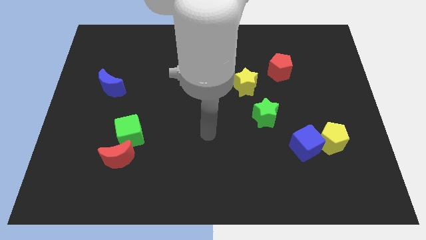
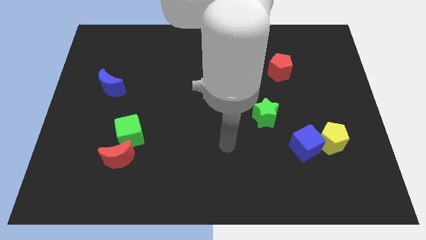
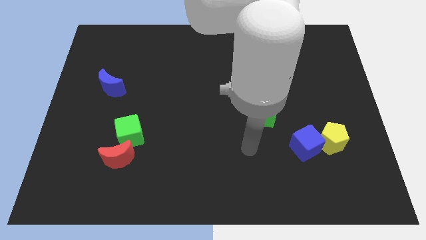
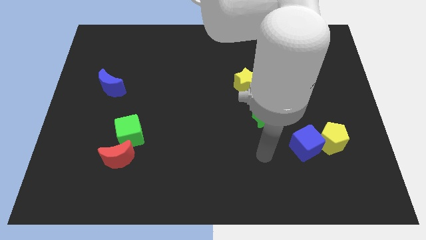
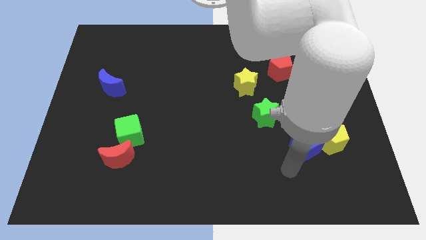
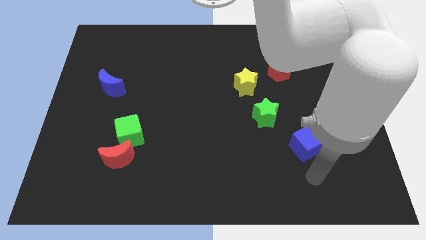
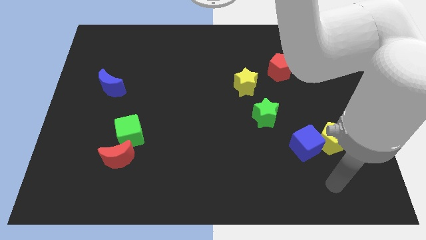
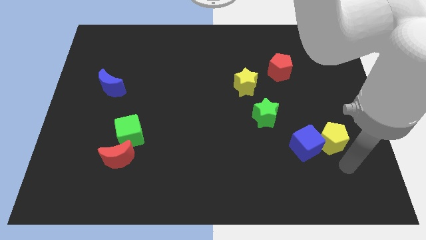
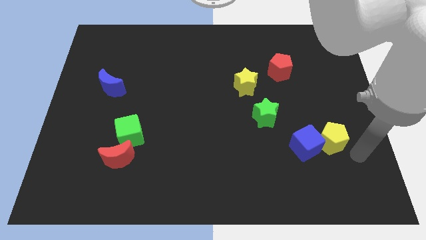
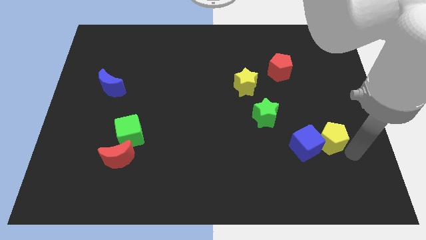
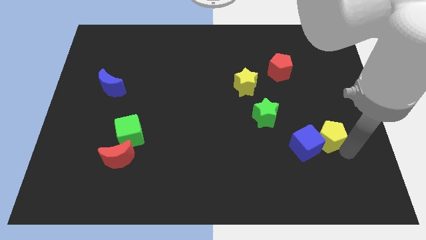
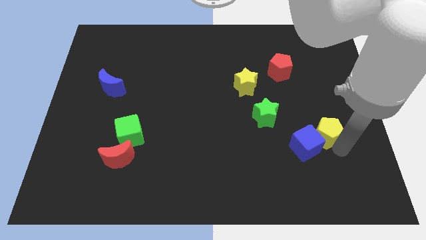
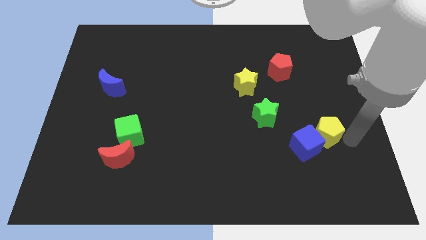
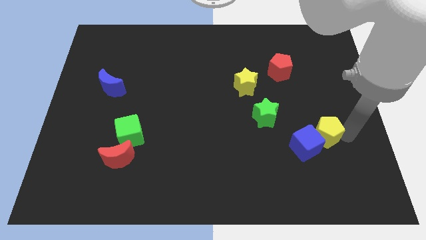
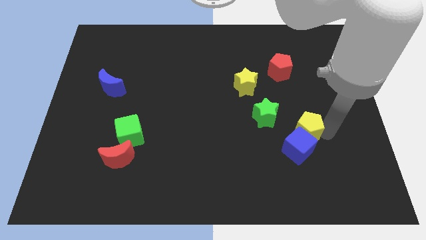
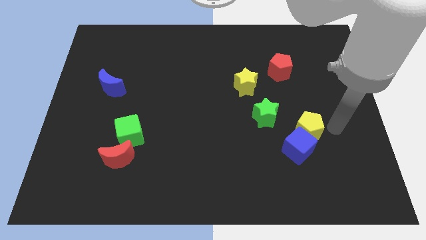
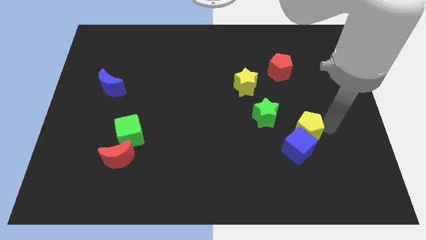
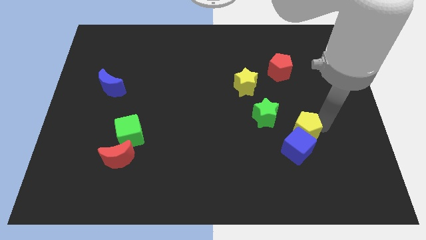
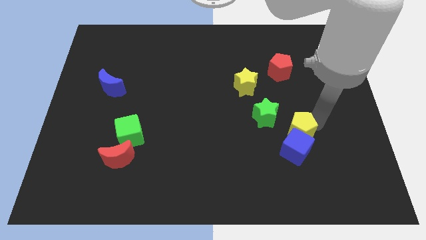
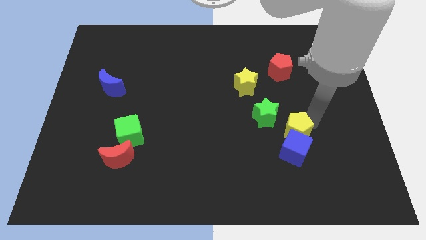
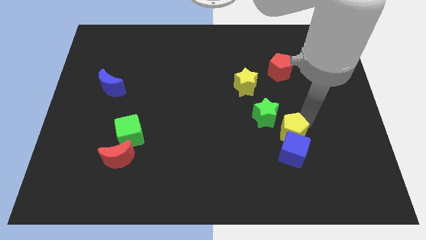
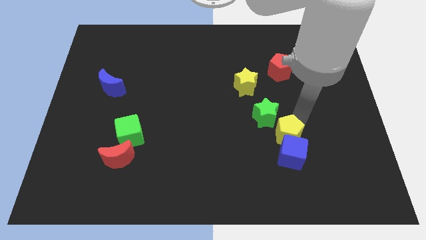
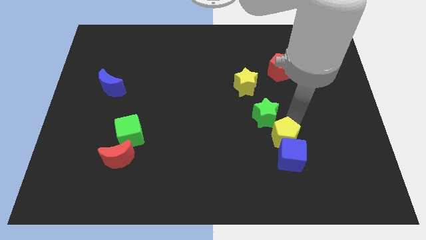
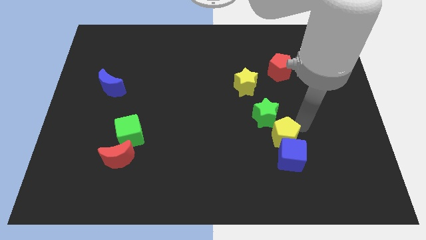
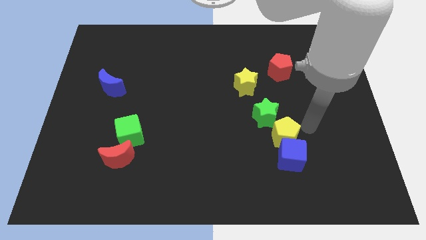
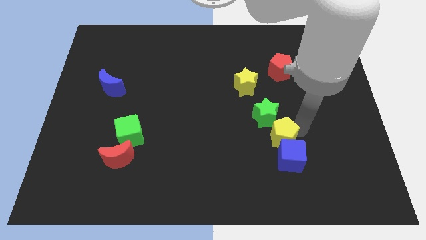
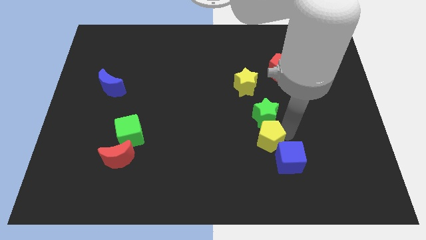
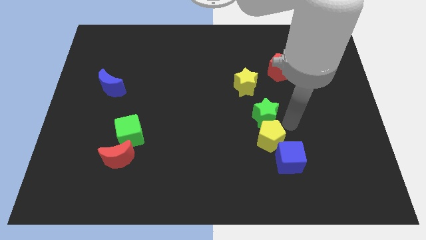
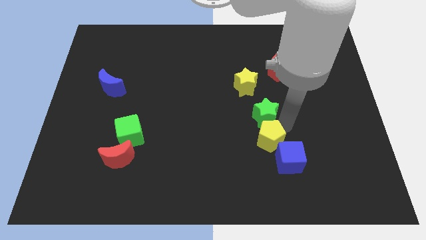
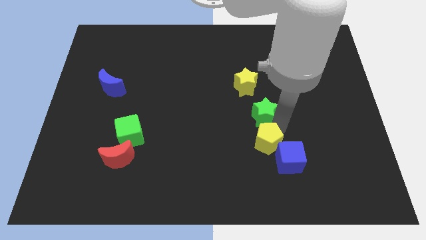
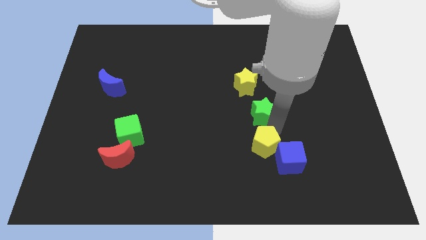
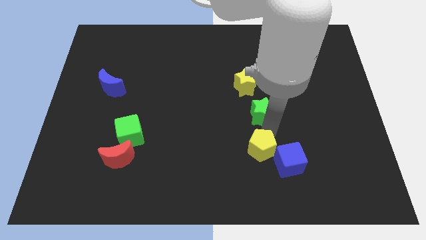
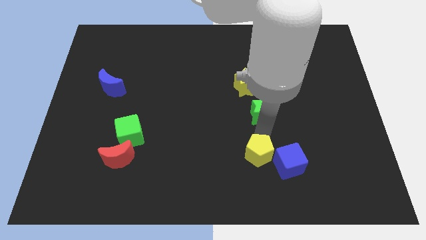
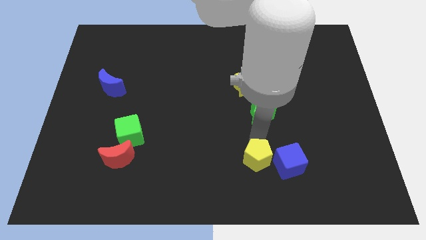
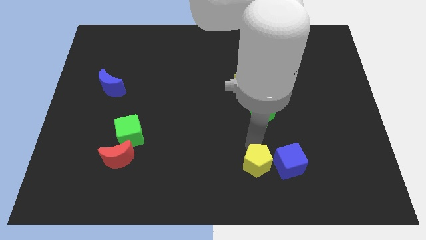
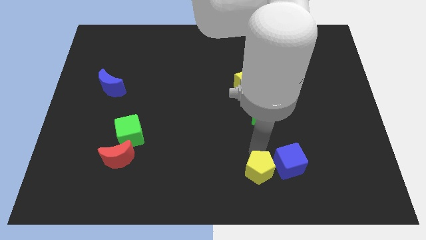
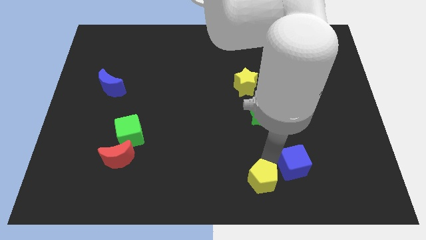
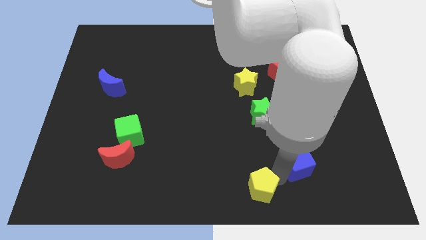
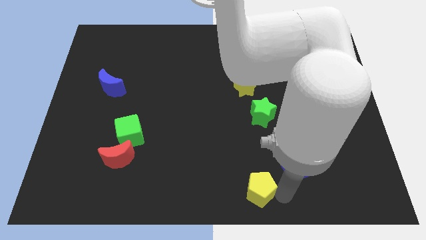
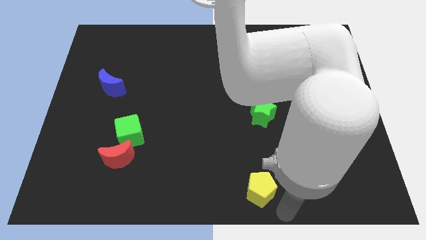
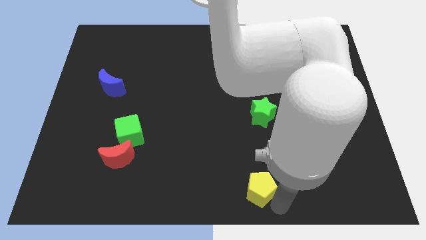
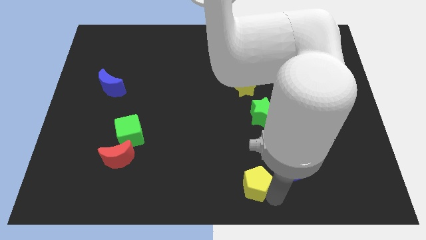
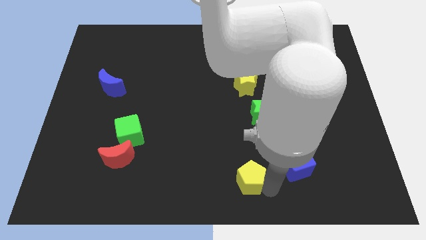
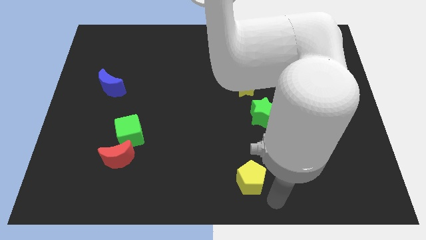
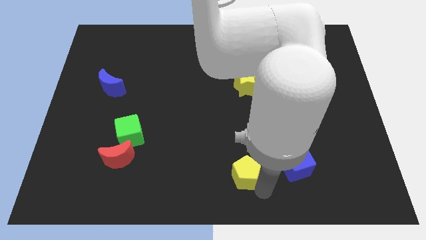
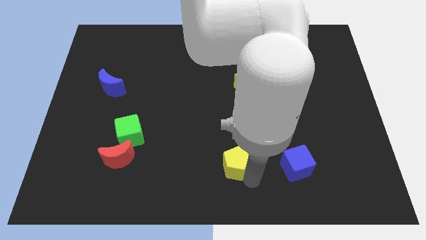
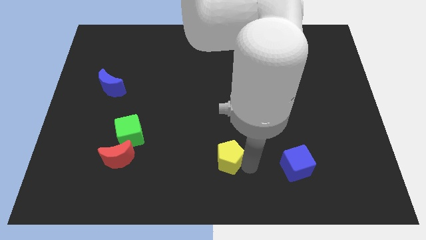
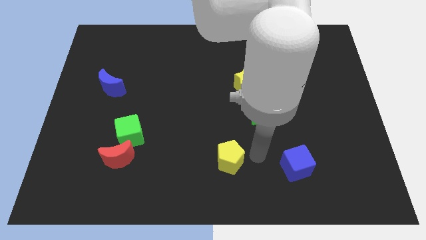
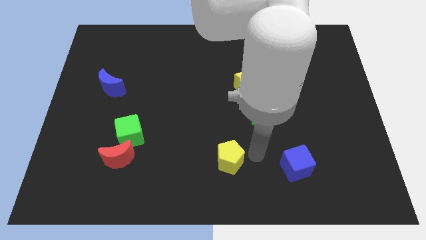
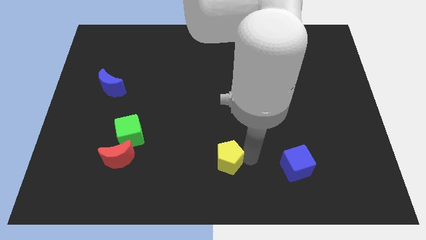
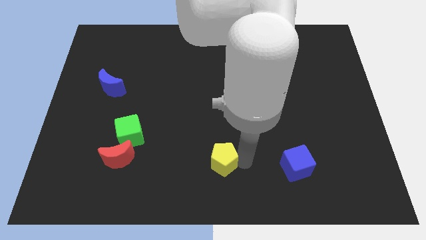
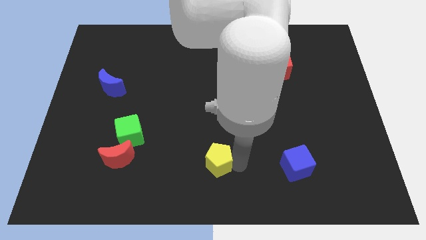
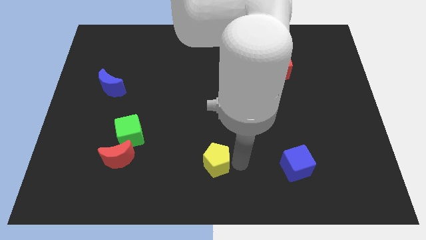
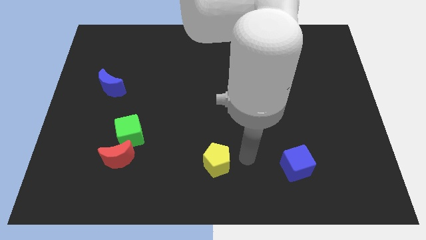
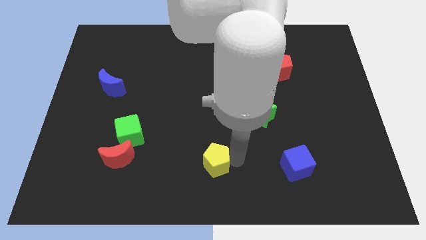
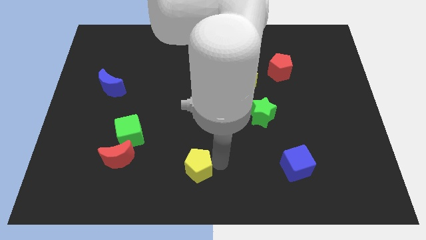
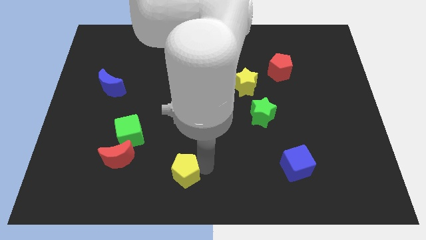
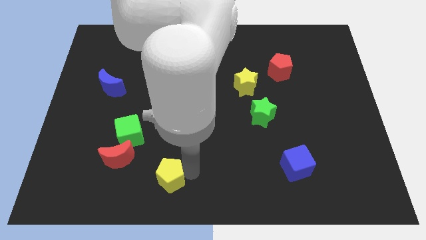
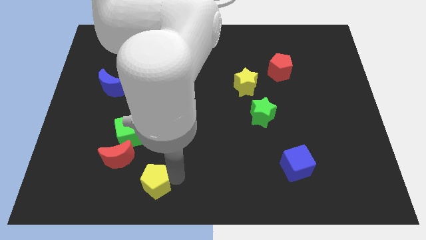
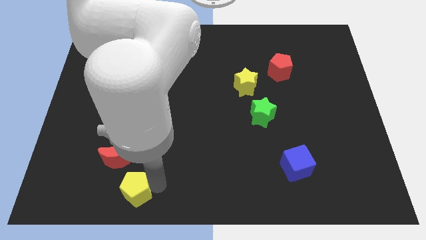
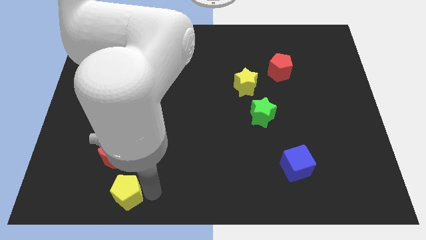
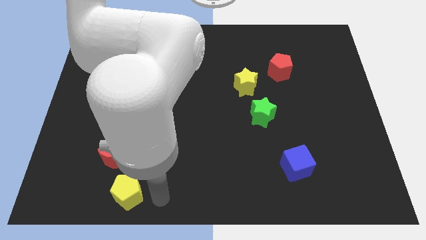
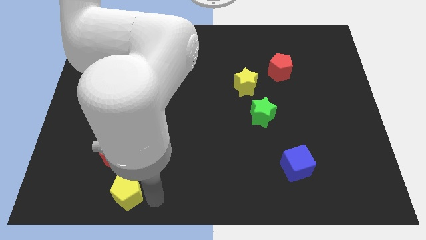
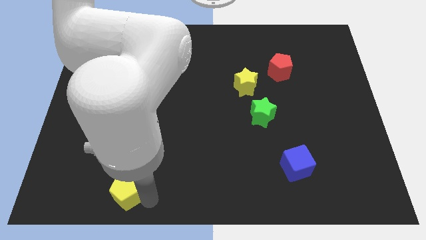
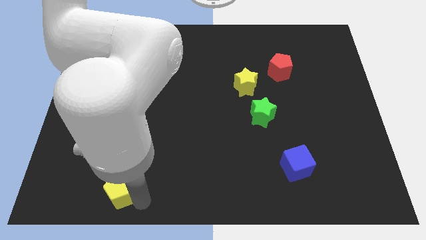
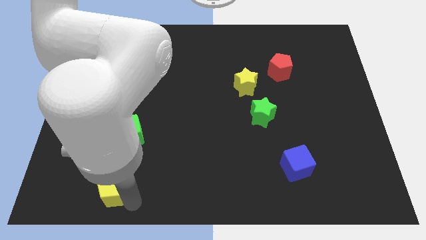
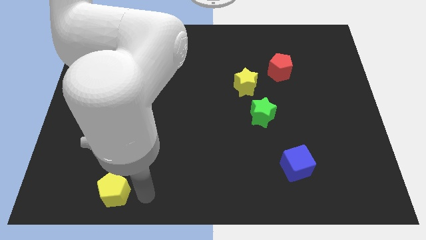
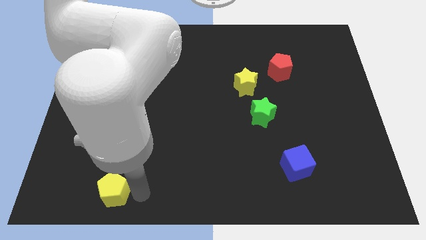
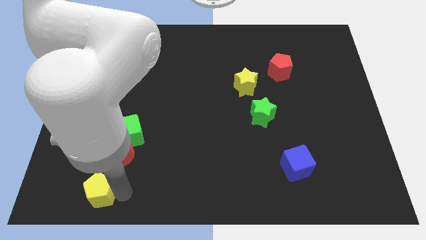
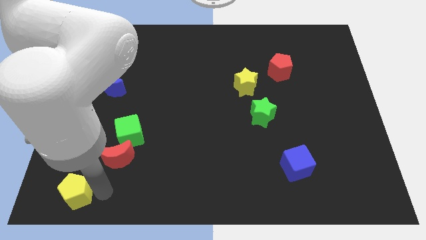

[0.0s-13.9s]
move the yellow pentagon to the lower left corner
